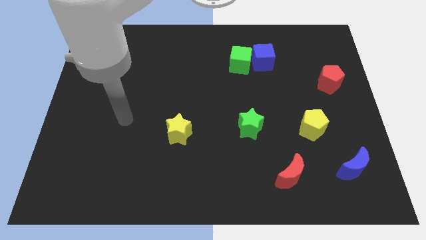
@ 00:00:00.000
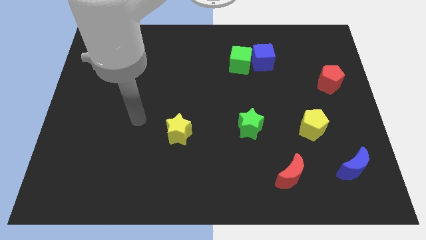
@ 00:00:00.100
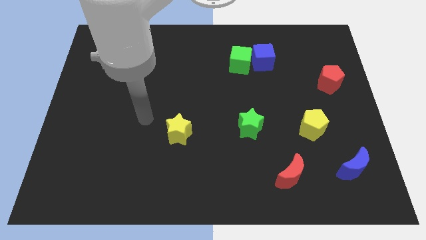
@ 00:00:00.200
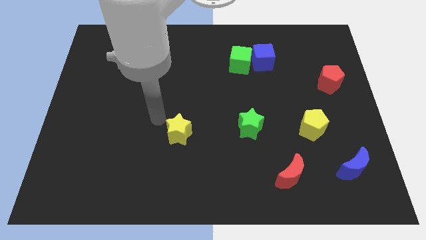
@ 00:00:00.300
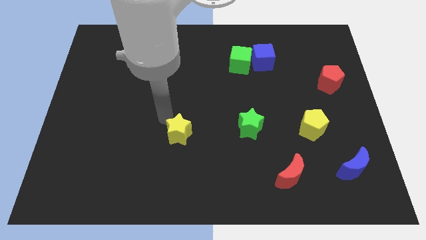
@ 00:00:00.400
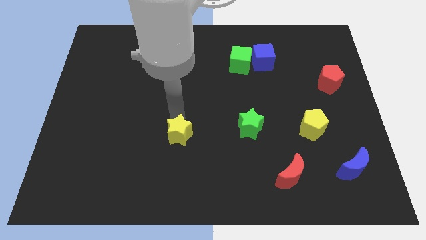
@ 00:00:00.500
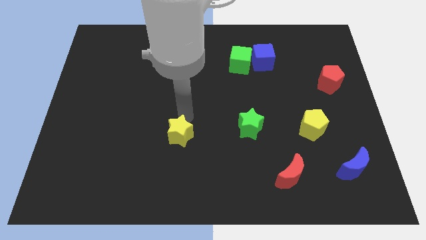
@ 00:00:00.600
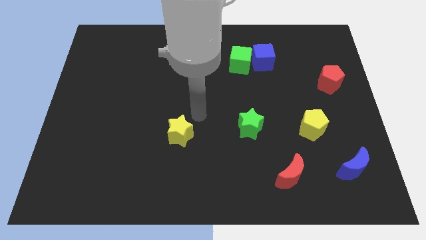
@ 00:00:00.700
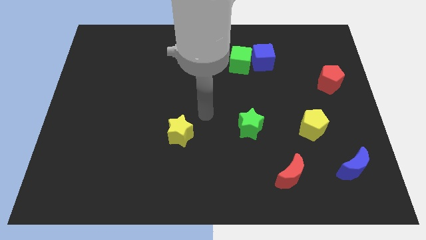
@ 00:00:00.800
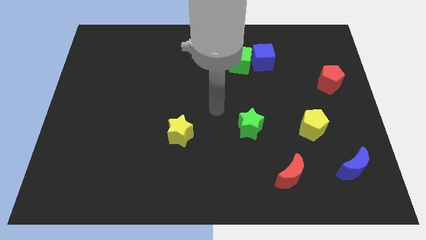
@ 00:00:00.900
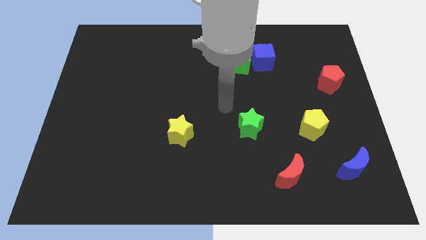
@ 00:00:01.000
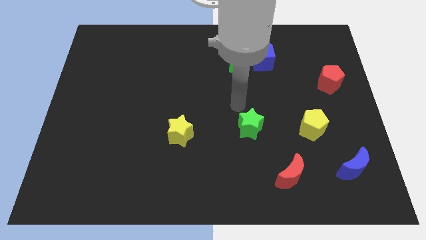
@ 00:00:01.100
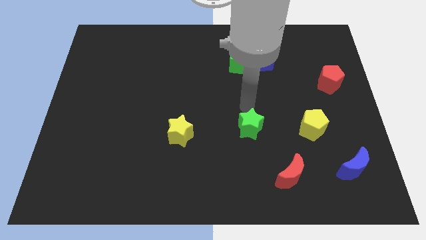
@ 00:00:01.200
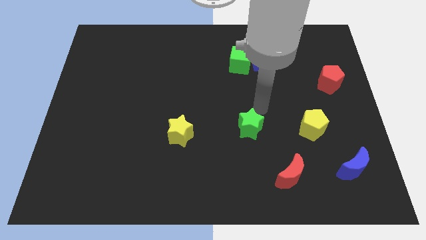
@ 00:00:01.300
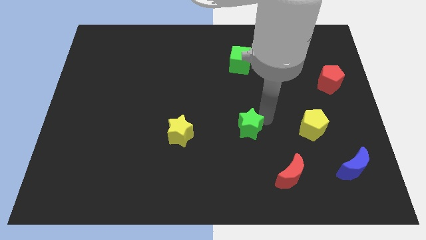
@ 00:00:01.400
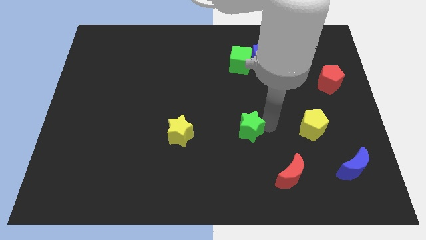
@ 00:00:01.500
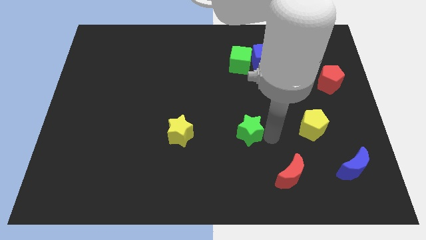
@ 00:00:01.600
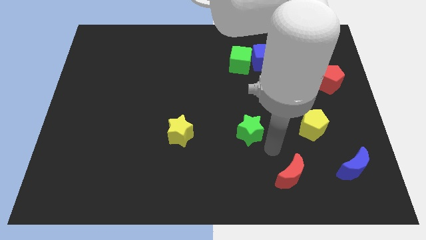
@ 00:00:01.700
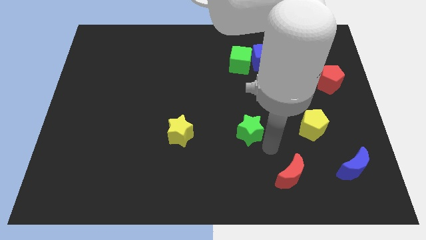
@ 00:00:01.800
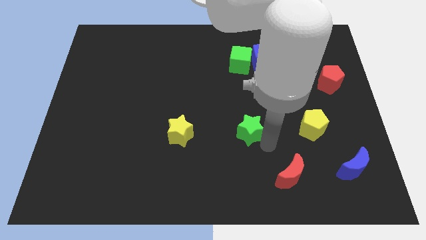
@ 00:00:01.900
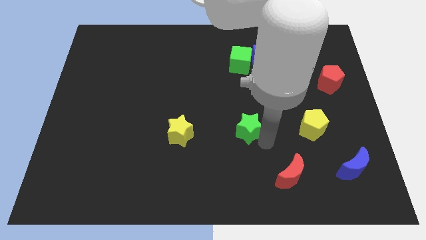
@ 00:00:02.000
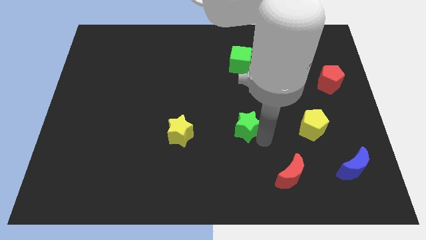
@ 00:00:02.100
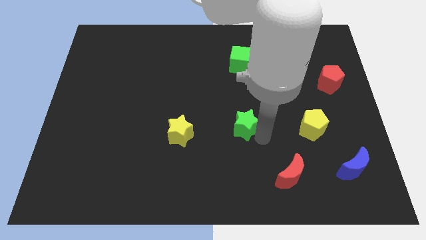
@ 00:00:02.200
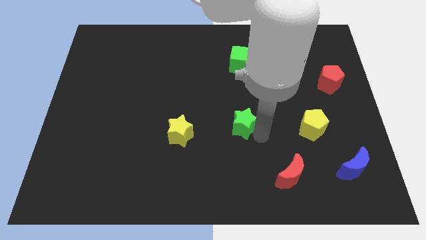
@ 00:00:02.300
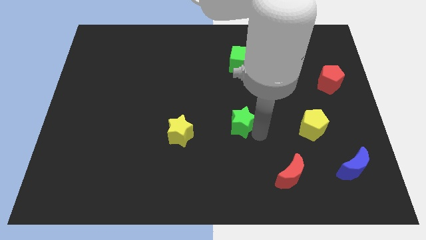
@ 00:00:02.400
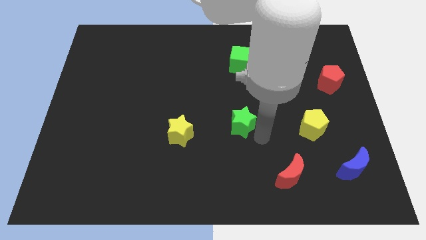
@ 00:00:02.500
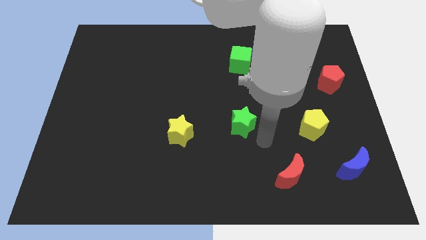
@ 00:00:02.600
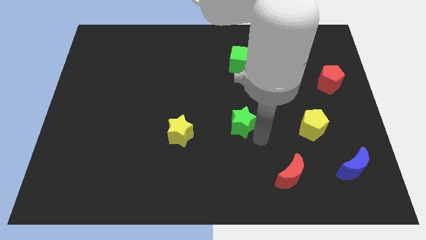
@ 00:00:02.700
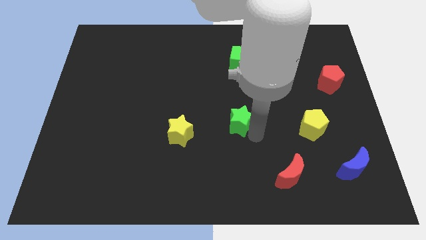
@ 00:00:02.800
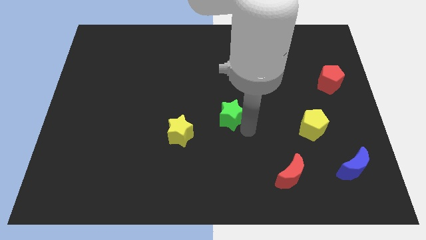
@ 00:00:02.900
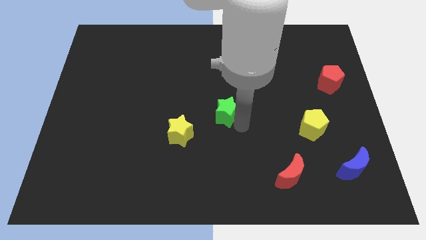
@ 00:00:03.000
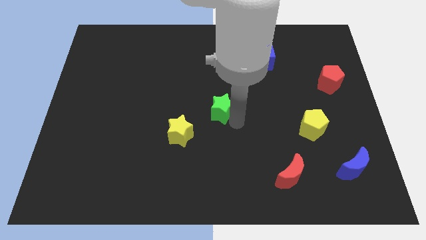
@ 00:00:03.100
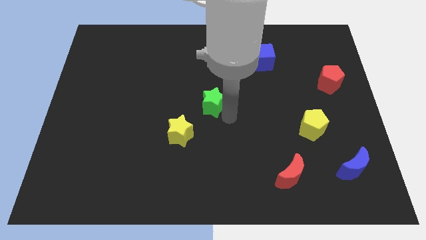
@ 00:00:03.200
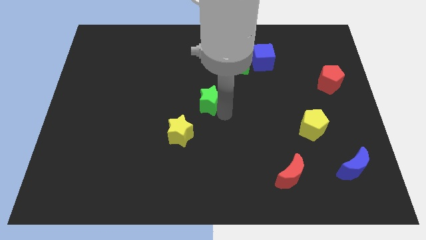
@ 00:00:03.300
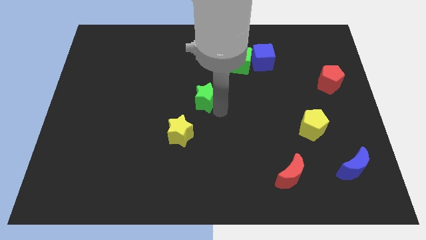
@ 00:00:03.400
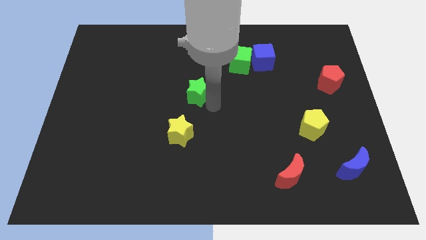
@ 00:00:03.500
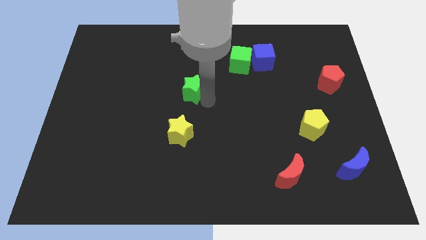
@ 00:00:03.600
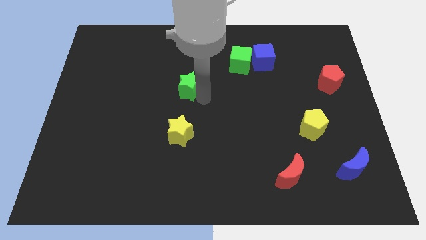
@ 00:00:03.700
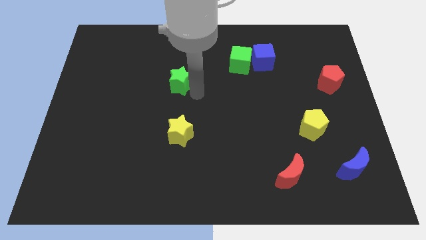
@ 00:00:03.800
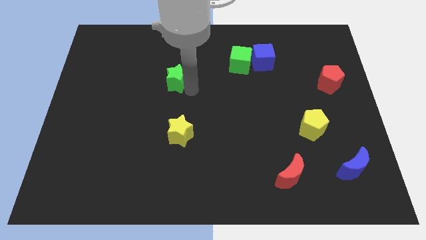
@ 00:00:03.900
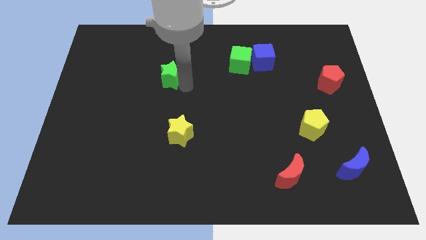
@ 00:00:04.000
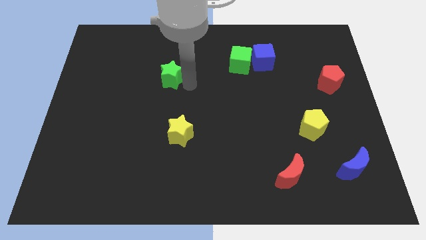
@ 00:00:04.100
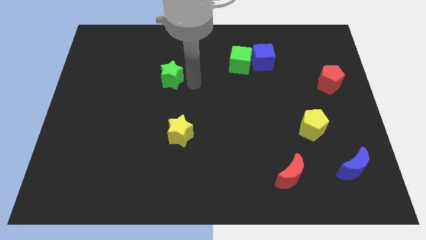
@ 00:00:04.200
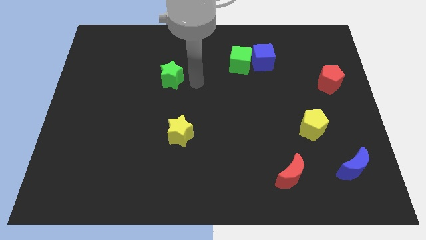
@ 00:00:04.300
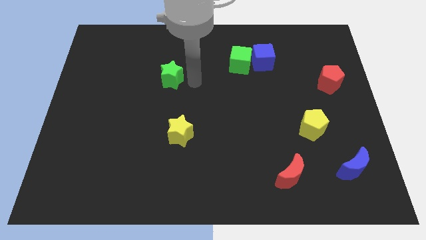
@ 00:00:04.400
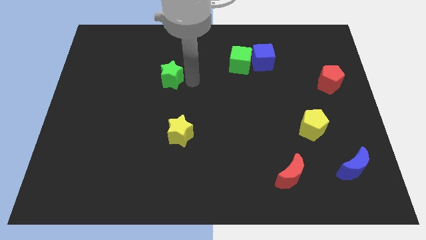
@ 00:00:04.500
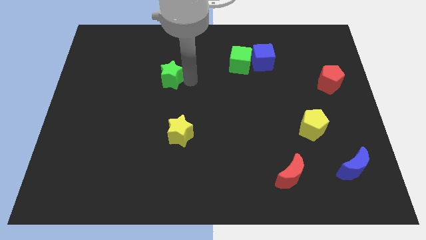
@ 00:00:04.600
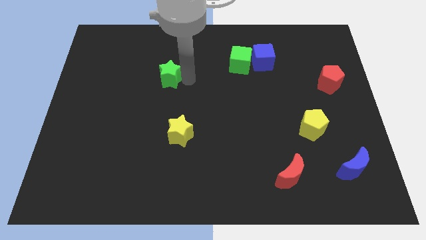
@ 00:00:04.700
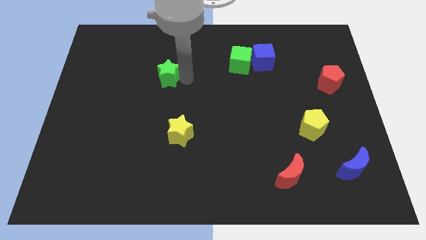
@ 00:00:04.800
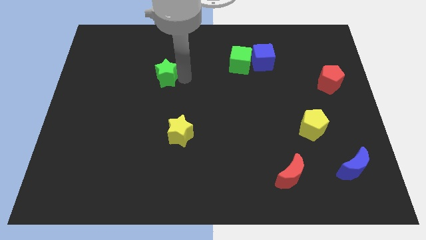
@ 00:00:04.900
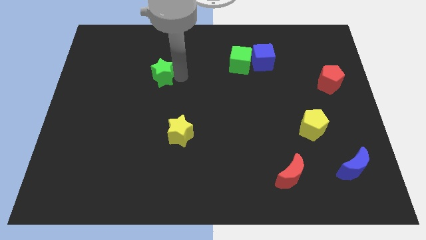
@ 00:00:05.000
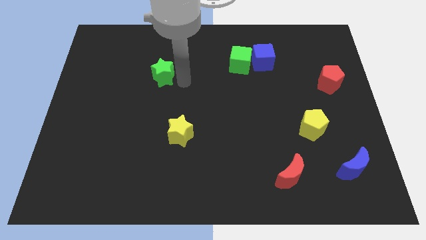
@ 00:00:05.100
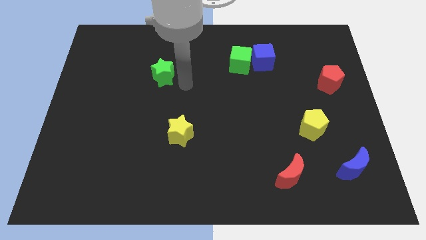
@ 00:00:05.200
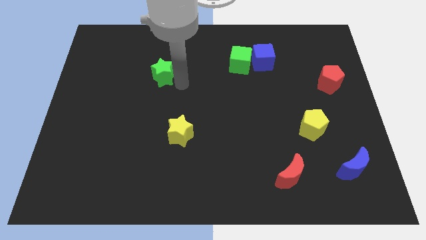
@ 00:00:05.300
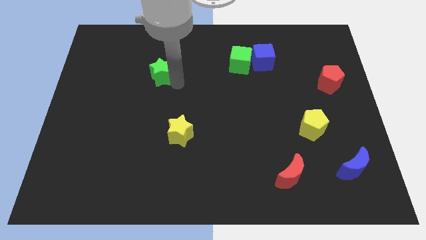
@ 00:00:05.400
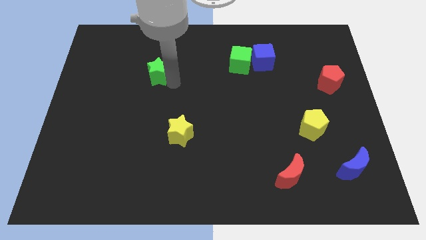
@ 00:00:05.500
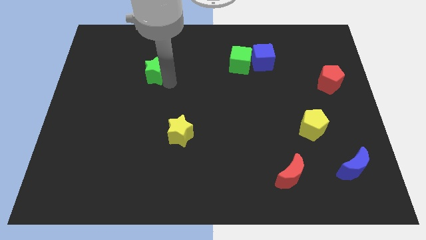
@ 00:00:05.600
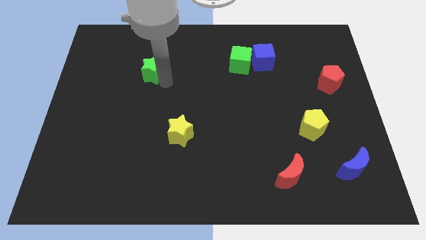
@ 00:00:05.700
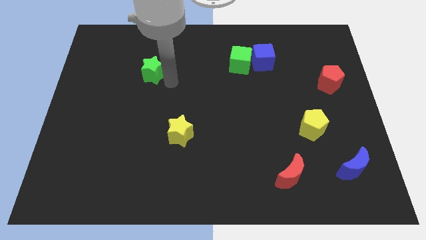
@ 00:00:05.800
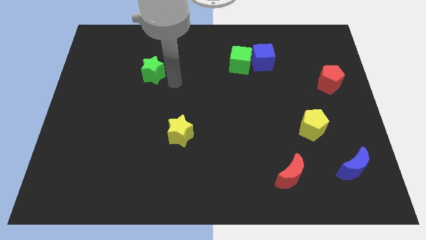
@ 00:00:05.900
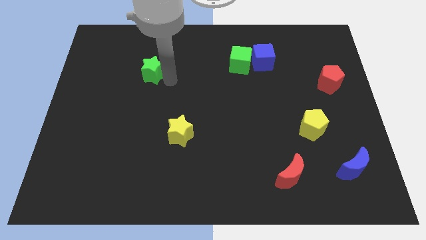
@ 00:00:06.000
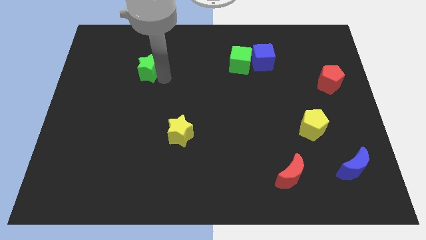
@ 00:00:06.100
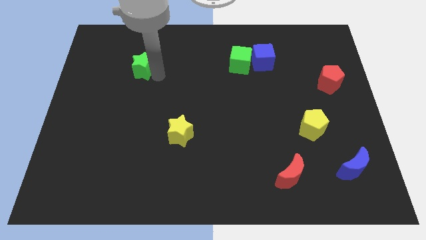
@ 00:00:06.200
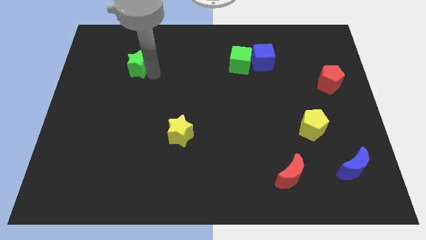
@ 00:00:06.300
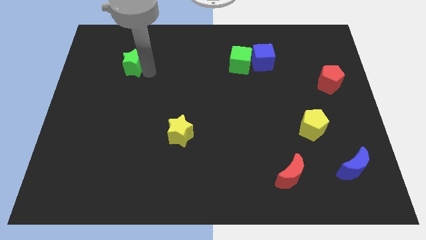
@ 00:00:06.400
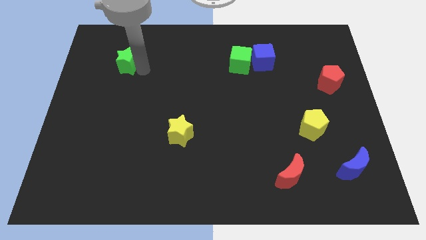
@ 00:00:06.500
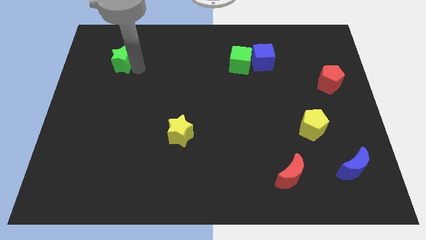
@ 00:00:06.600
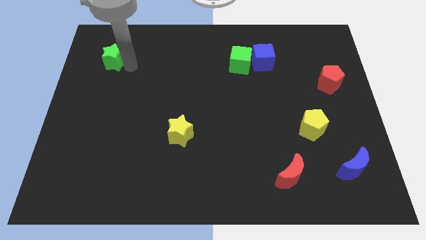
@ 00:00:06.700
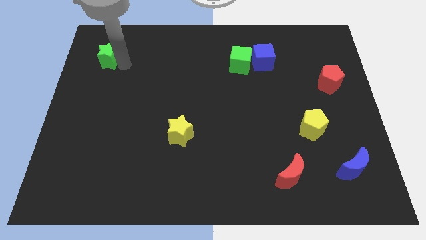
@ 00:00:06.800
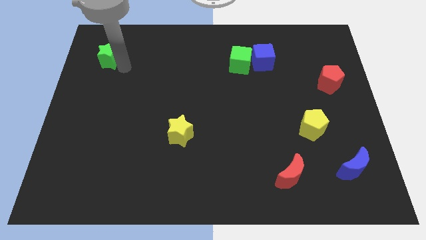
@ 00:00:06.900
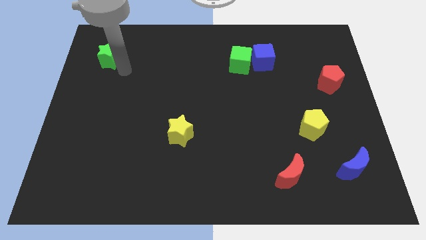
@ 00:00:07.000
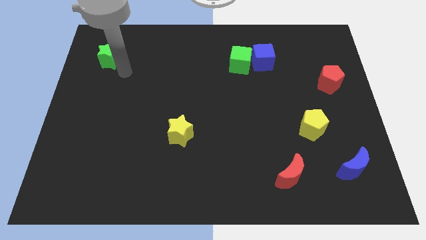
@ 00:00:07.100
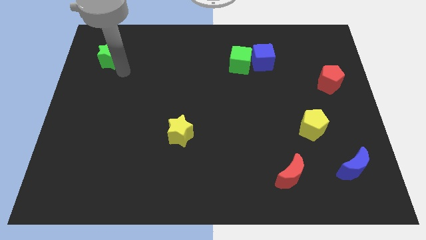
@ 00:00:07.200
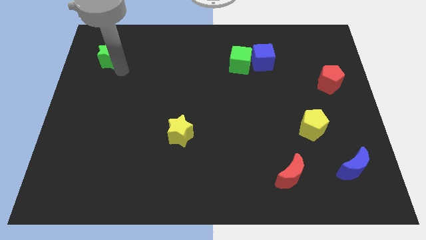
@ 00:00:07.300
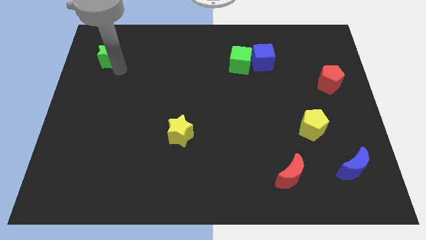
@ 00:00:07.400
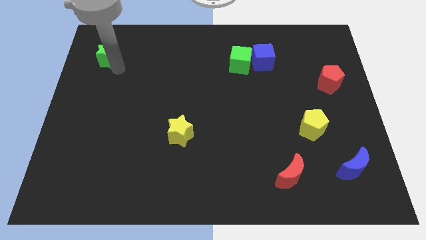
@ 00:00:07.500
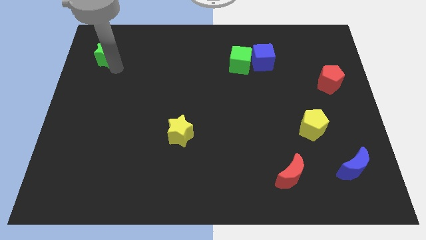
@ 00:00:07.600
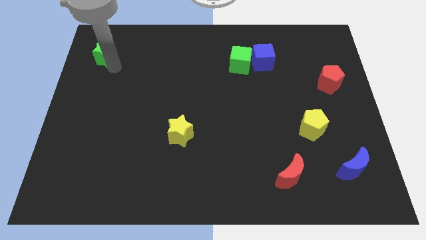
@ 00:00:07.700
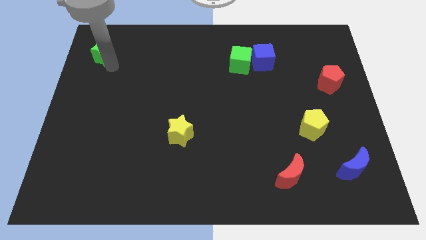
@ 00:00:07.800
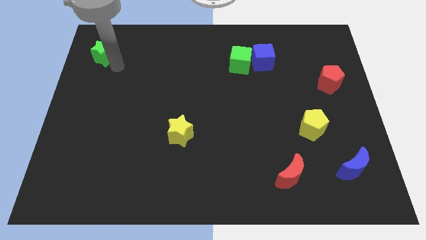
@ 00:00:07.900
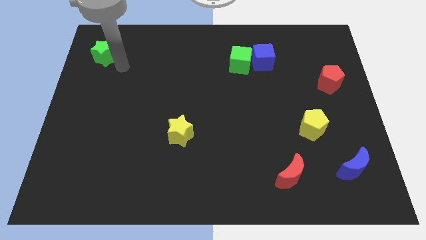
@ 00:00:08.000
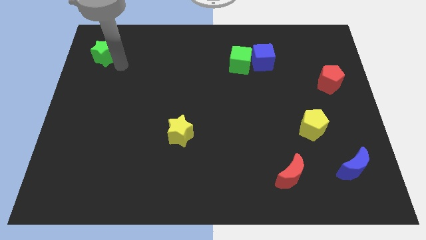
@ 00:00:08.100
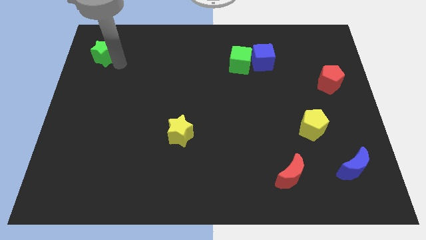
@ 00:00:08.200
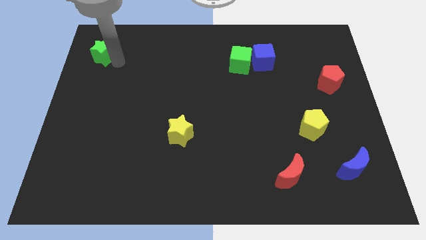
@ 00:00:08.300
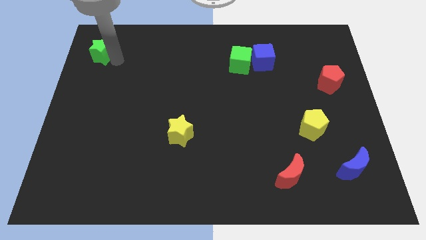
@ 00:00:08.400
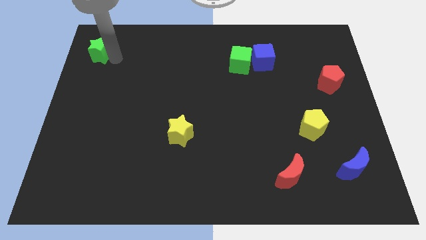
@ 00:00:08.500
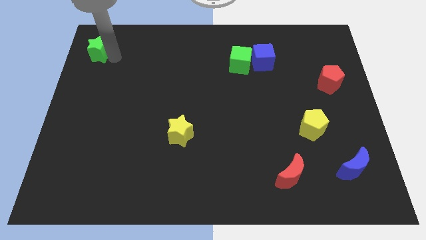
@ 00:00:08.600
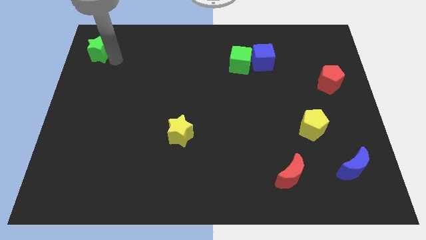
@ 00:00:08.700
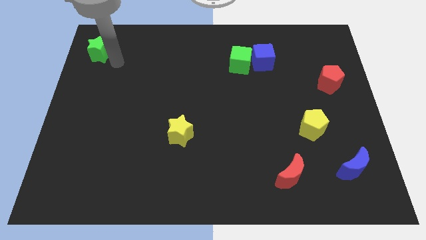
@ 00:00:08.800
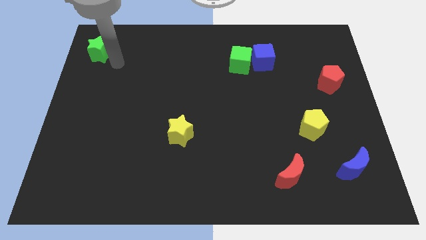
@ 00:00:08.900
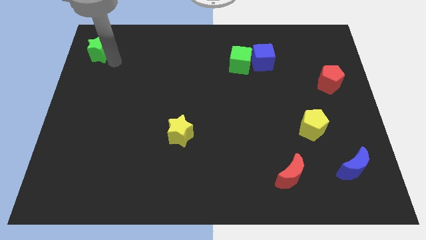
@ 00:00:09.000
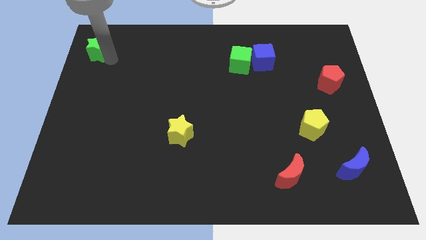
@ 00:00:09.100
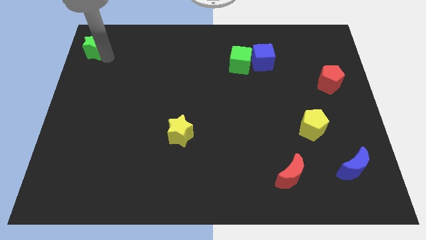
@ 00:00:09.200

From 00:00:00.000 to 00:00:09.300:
push the green star to the top left
